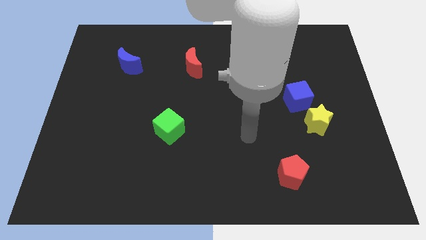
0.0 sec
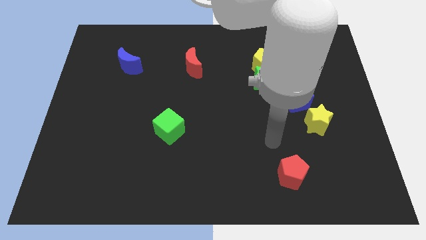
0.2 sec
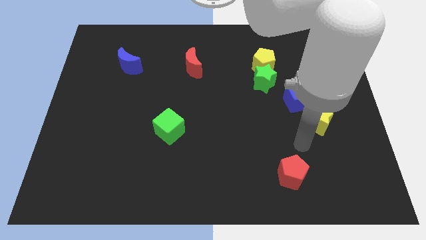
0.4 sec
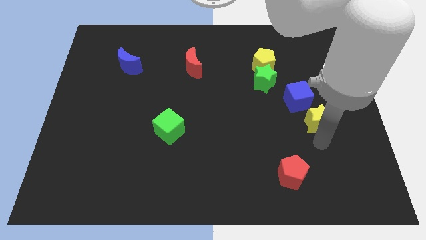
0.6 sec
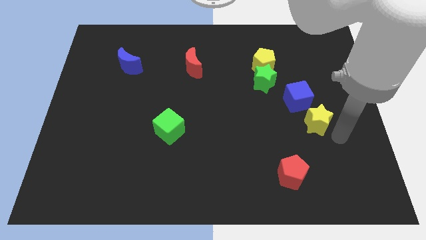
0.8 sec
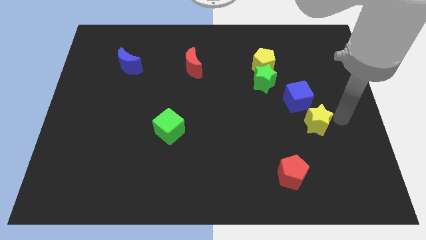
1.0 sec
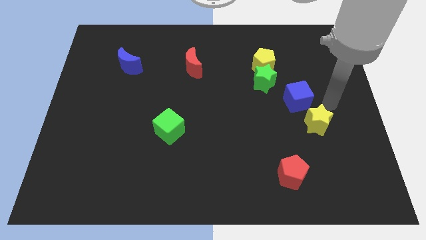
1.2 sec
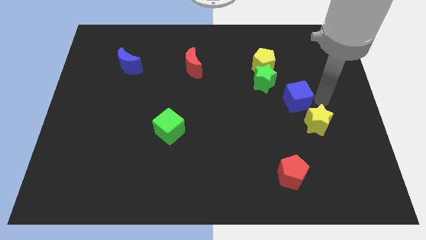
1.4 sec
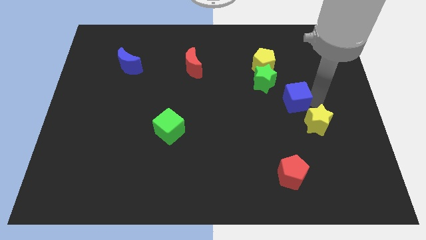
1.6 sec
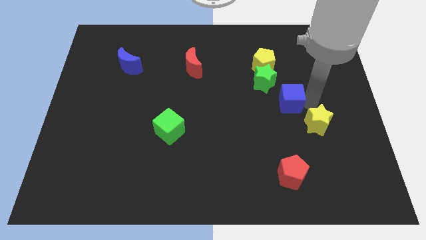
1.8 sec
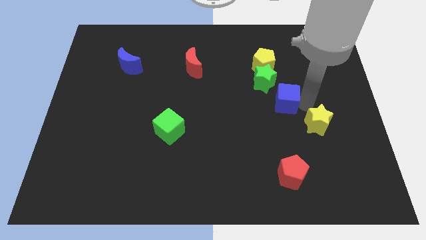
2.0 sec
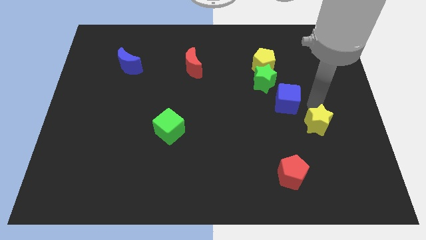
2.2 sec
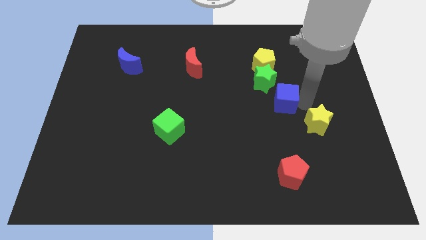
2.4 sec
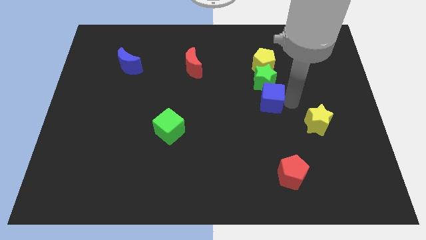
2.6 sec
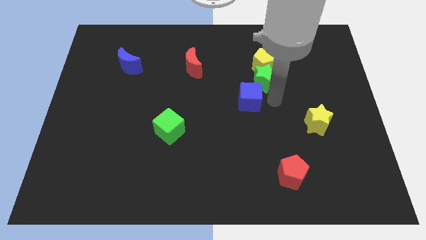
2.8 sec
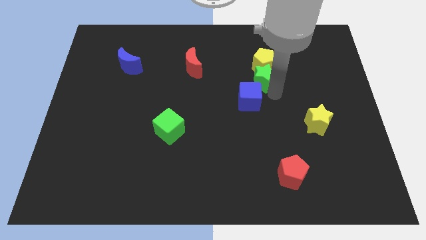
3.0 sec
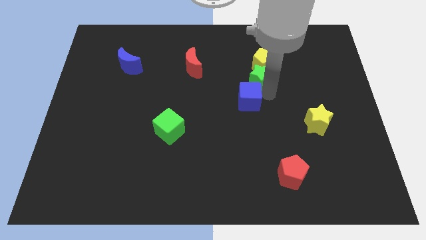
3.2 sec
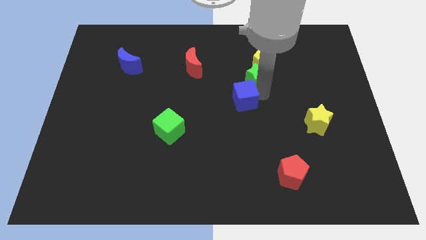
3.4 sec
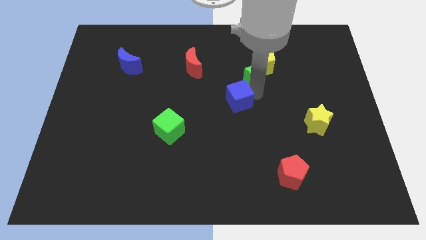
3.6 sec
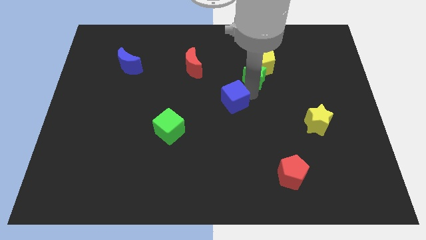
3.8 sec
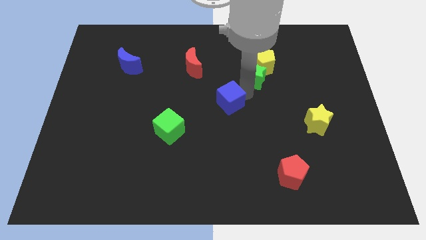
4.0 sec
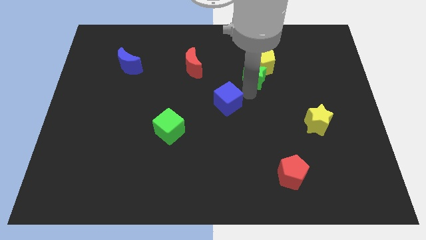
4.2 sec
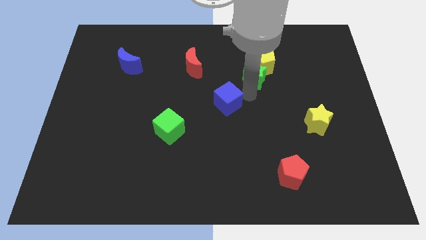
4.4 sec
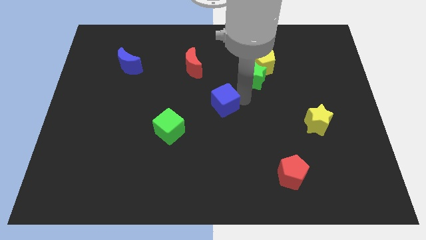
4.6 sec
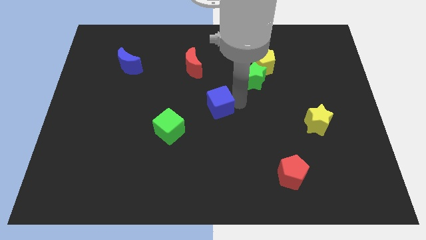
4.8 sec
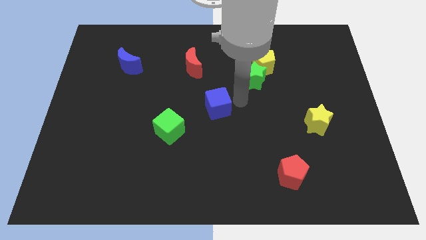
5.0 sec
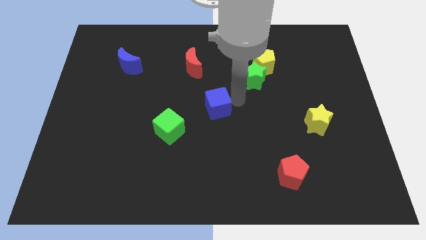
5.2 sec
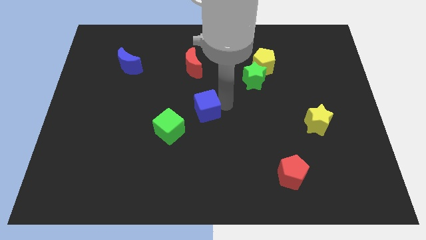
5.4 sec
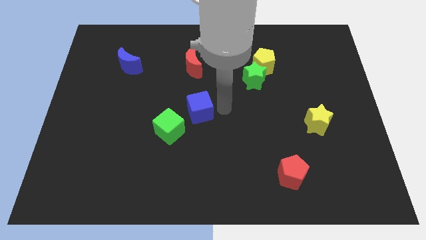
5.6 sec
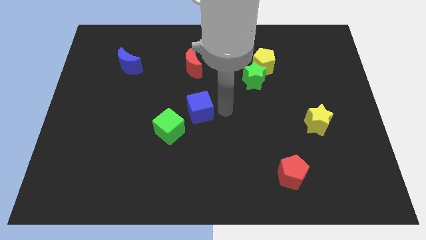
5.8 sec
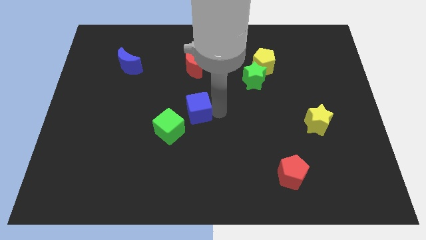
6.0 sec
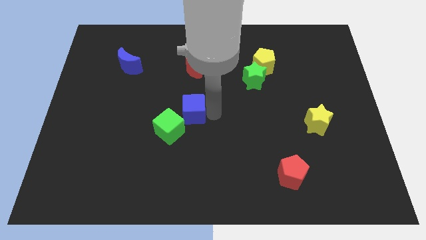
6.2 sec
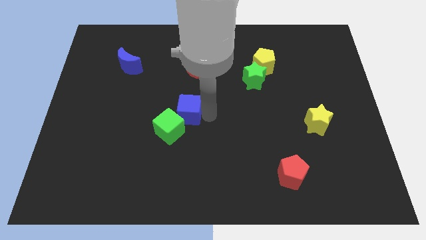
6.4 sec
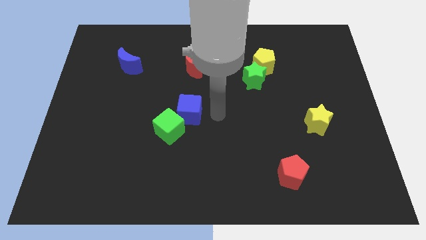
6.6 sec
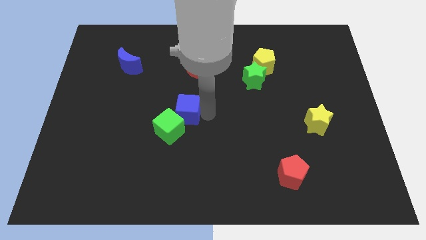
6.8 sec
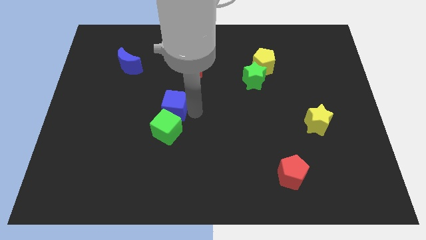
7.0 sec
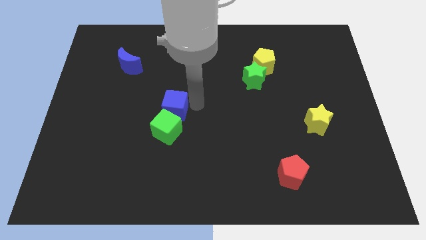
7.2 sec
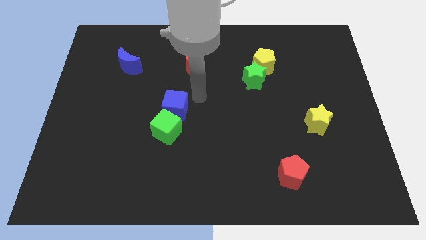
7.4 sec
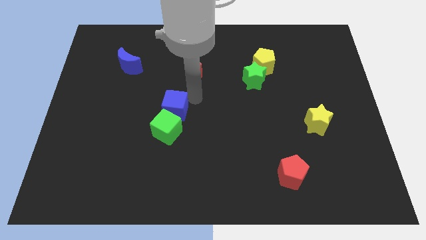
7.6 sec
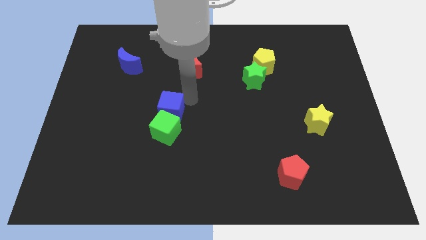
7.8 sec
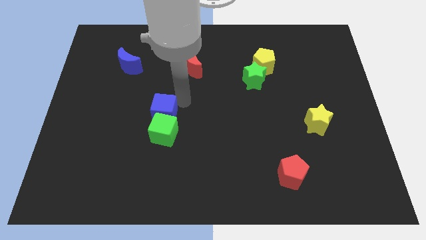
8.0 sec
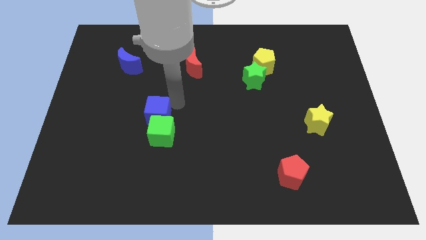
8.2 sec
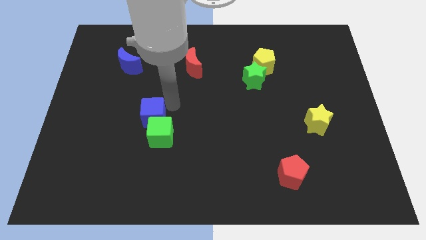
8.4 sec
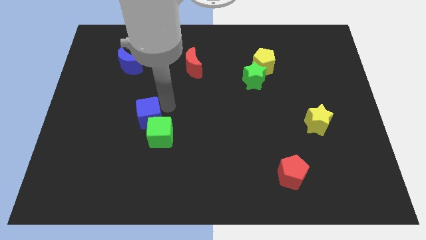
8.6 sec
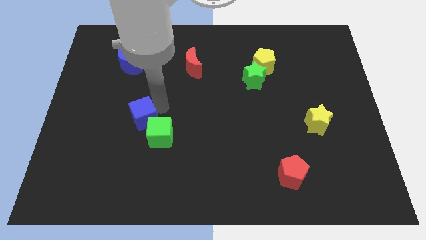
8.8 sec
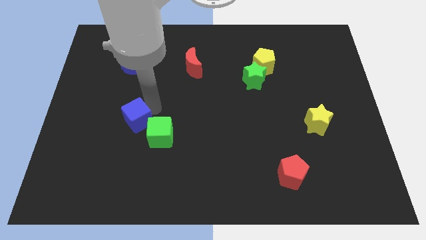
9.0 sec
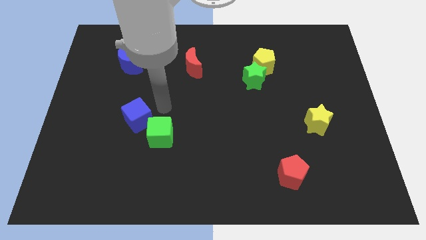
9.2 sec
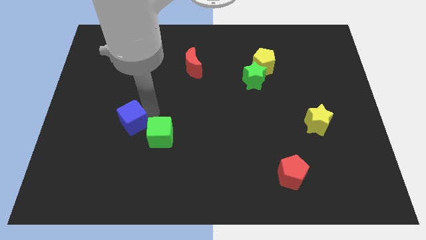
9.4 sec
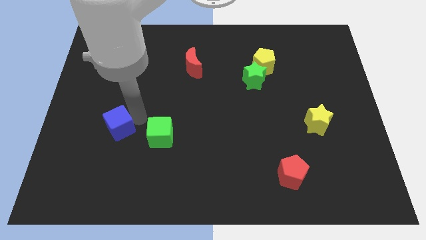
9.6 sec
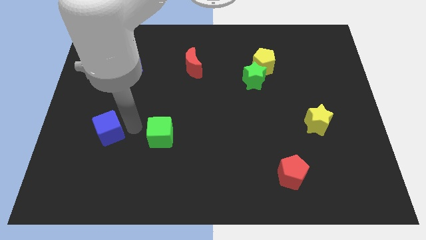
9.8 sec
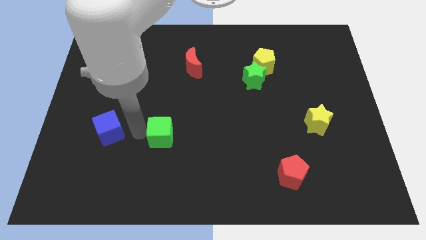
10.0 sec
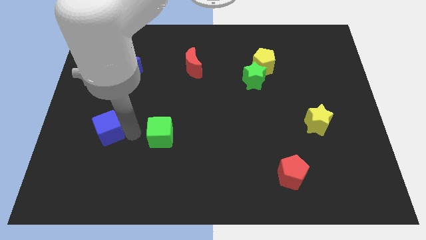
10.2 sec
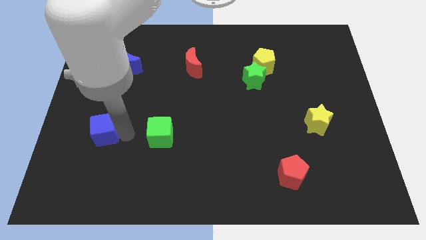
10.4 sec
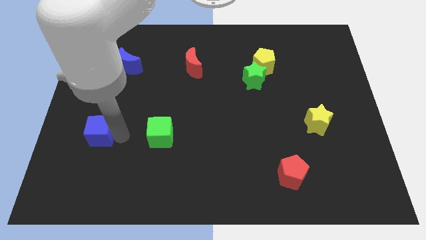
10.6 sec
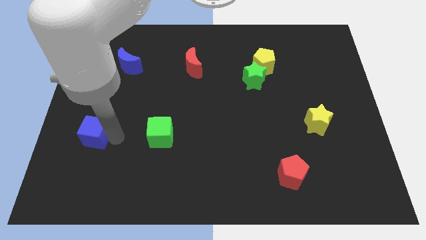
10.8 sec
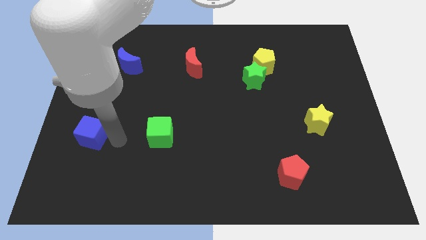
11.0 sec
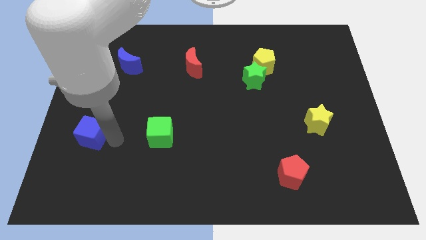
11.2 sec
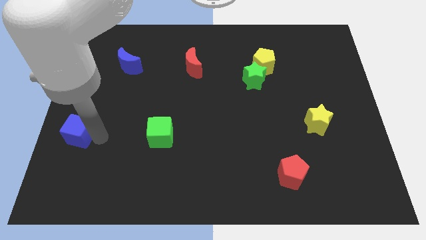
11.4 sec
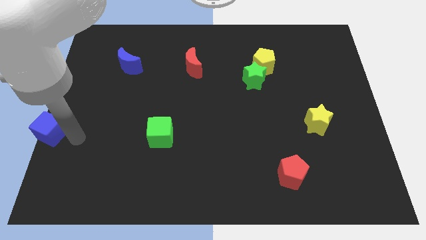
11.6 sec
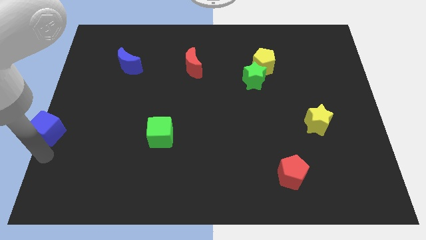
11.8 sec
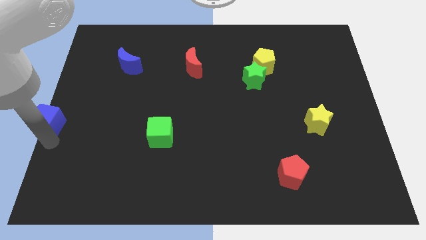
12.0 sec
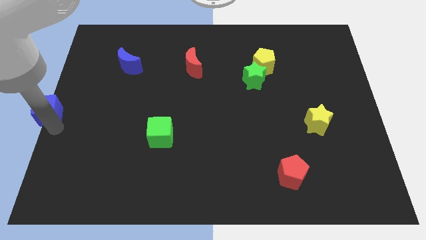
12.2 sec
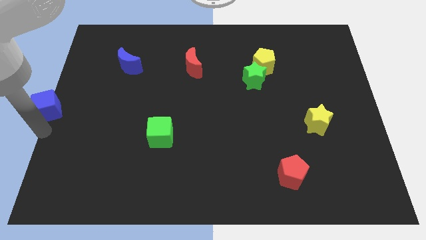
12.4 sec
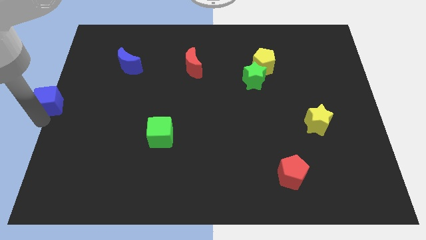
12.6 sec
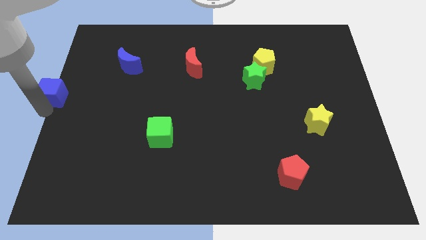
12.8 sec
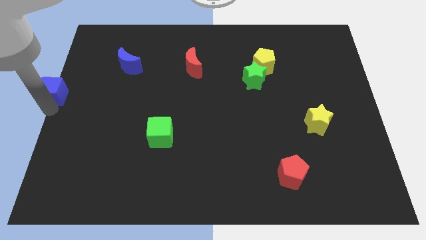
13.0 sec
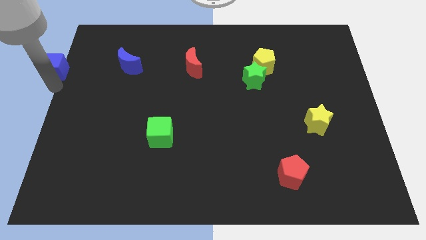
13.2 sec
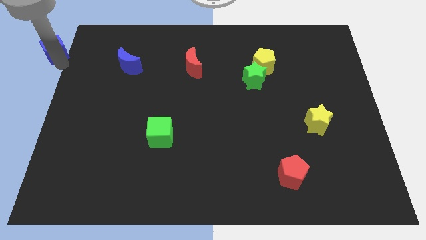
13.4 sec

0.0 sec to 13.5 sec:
push the blue cube to the top left corner
